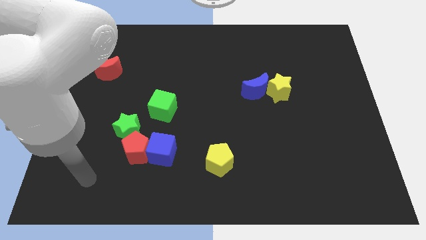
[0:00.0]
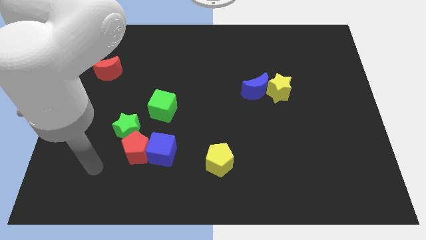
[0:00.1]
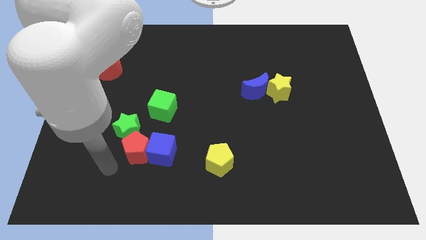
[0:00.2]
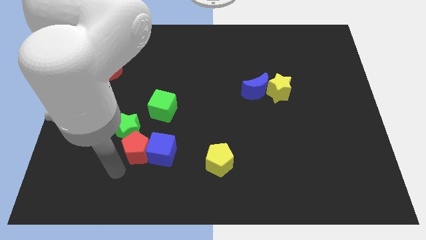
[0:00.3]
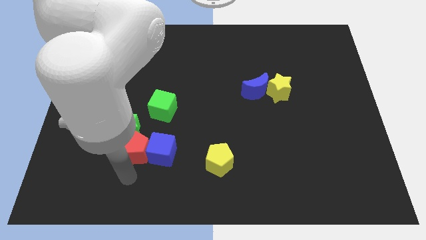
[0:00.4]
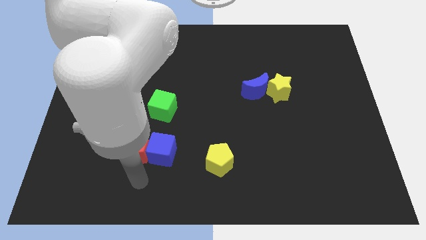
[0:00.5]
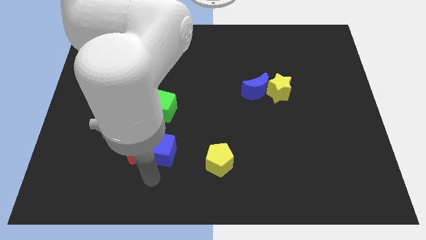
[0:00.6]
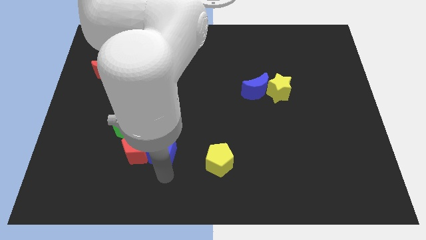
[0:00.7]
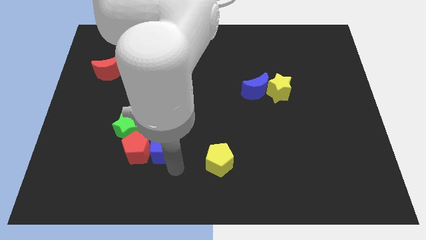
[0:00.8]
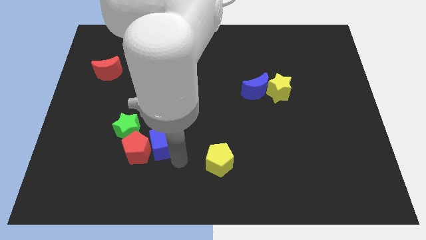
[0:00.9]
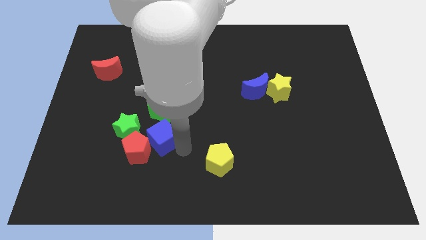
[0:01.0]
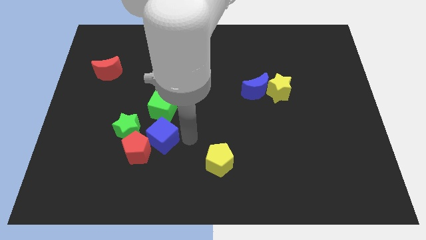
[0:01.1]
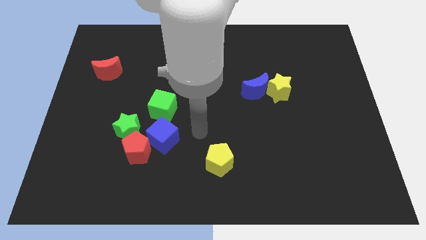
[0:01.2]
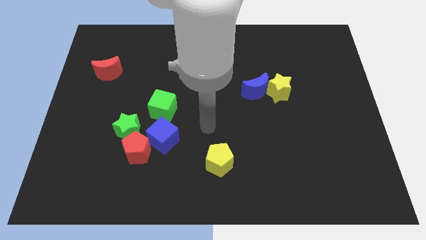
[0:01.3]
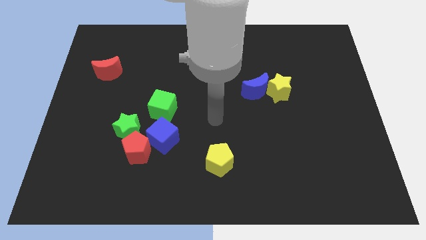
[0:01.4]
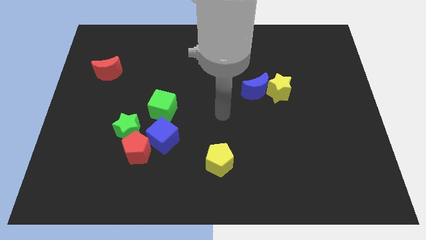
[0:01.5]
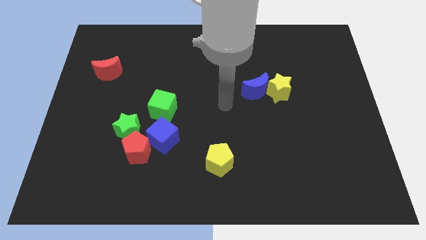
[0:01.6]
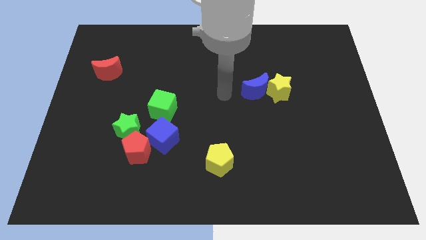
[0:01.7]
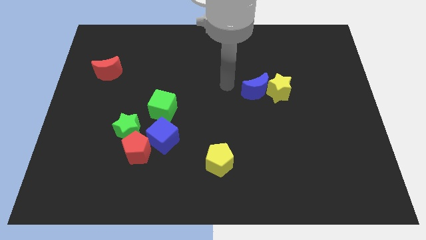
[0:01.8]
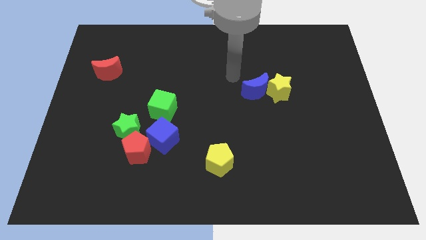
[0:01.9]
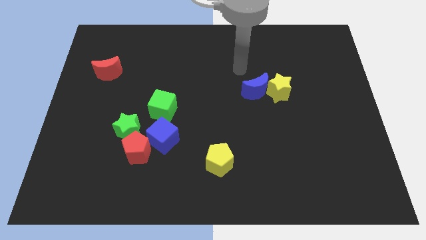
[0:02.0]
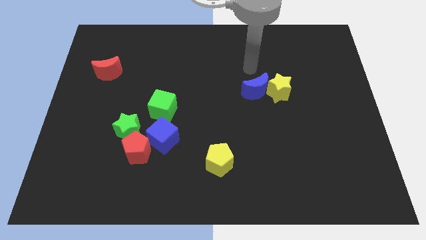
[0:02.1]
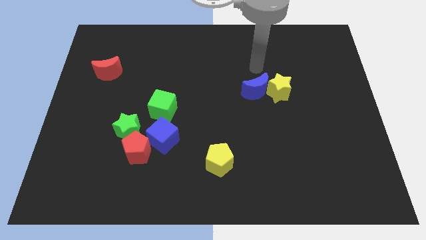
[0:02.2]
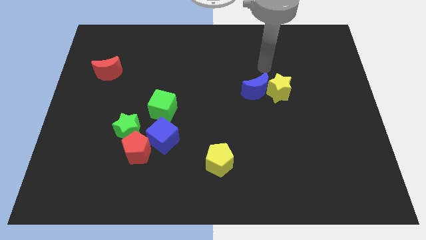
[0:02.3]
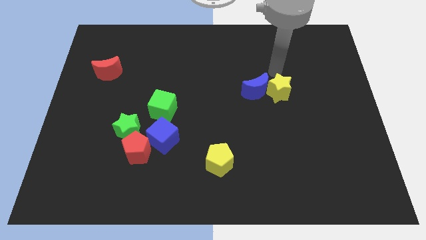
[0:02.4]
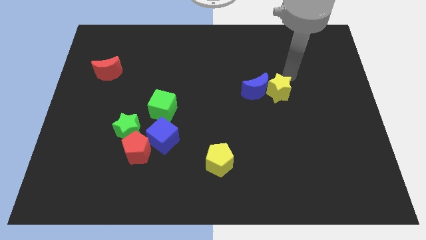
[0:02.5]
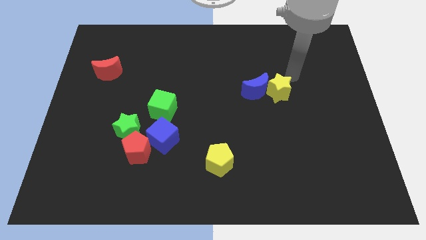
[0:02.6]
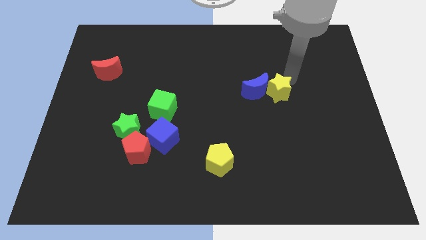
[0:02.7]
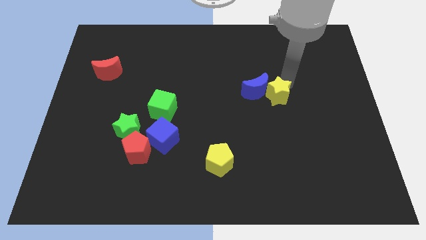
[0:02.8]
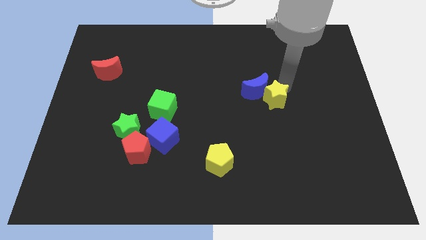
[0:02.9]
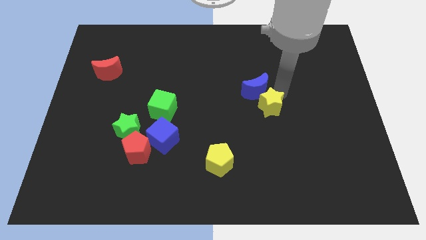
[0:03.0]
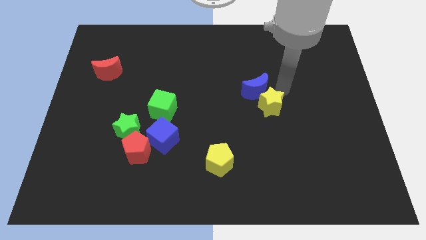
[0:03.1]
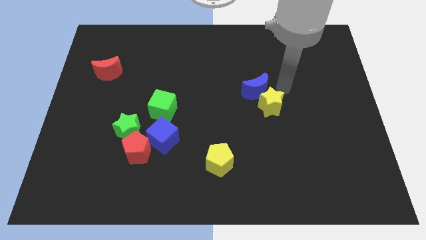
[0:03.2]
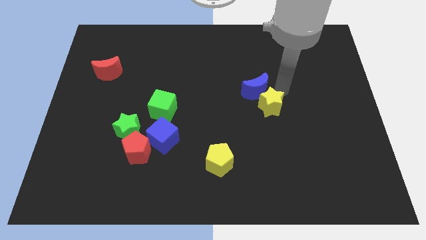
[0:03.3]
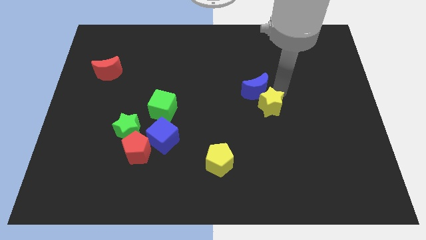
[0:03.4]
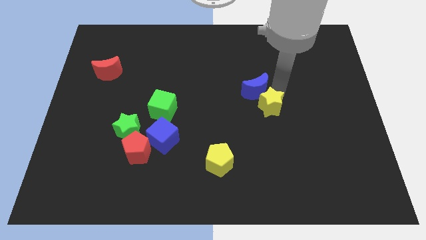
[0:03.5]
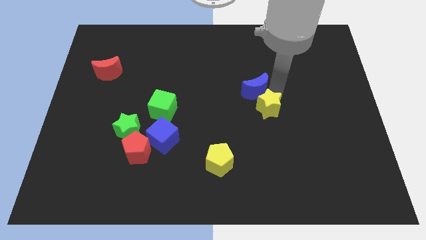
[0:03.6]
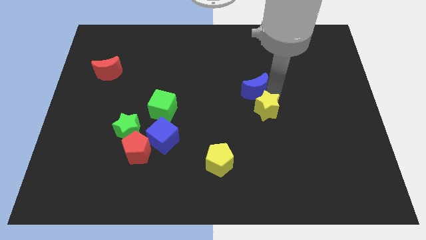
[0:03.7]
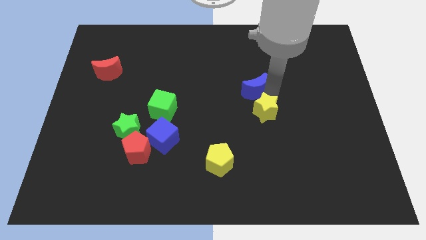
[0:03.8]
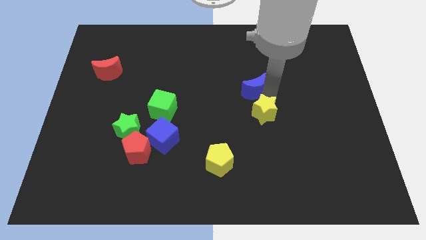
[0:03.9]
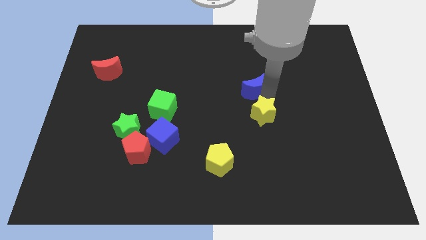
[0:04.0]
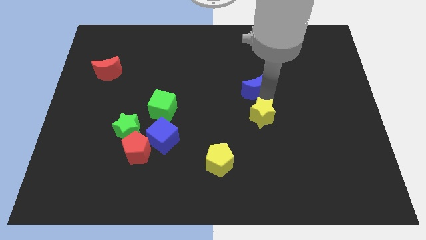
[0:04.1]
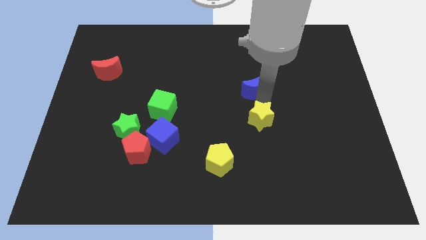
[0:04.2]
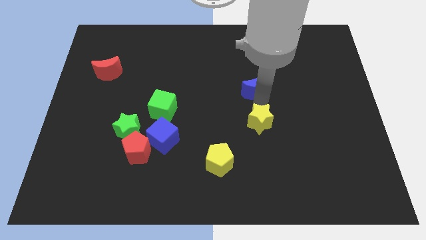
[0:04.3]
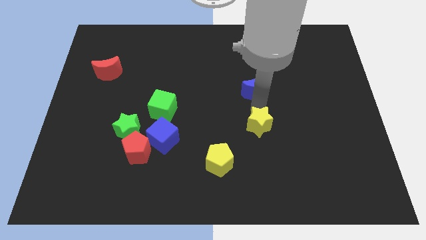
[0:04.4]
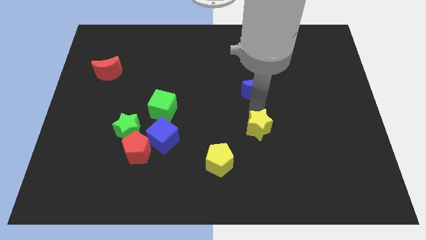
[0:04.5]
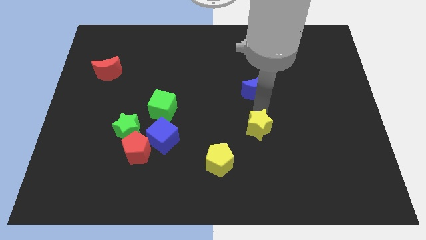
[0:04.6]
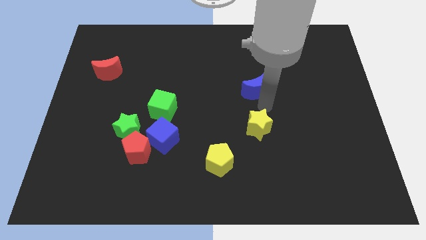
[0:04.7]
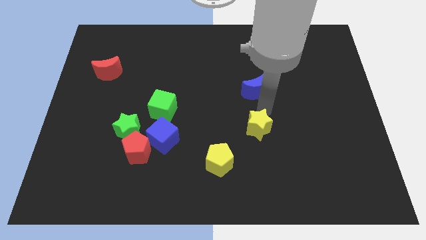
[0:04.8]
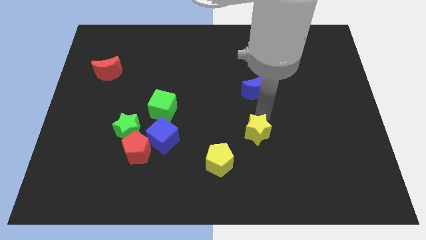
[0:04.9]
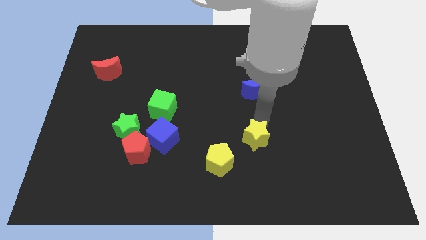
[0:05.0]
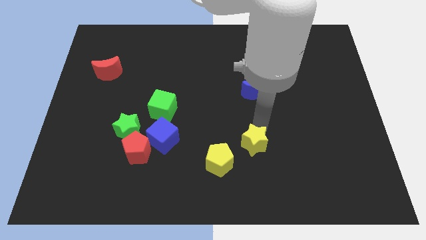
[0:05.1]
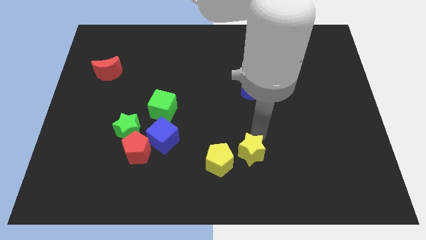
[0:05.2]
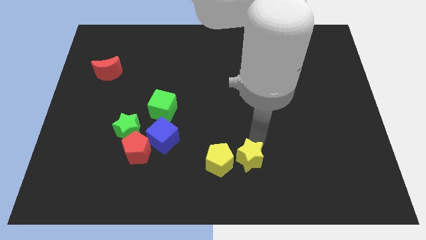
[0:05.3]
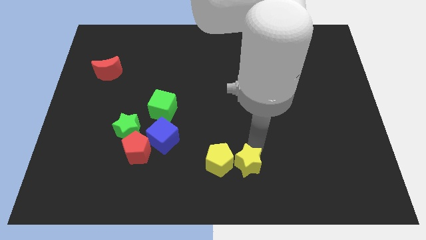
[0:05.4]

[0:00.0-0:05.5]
slide the yellow star to the bottom

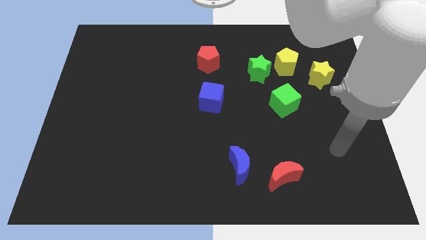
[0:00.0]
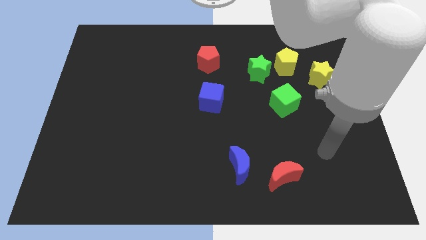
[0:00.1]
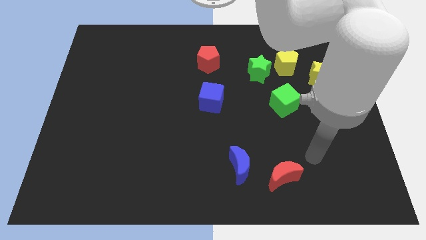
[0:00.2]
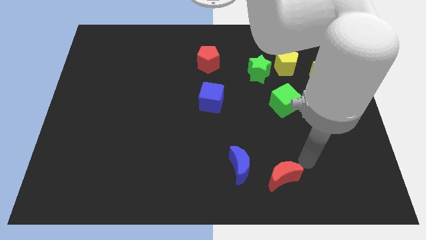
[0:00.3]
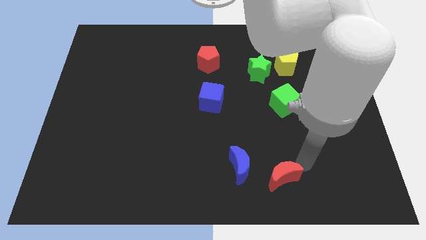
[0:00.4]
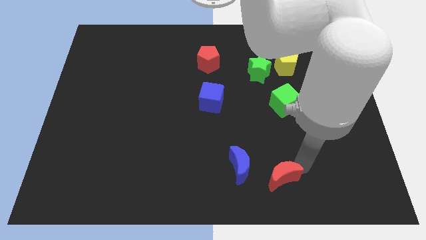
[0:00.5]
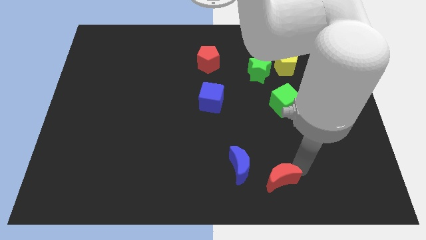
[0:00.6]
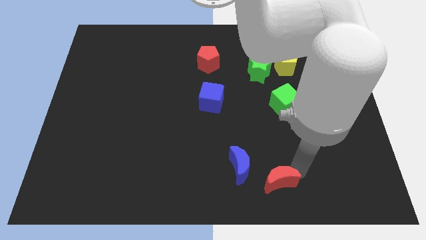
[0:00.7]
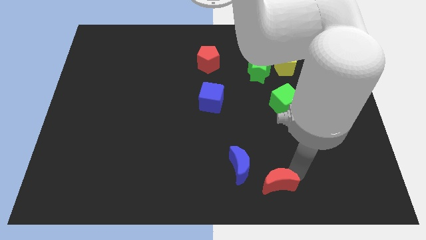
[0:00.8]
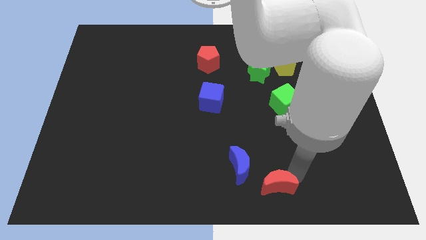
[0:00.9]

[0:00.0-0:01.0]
push the red moon to the bottom
